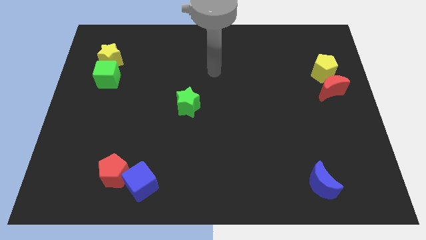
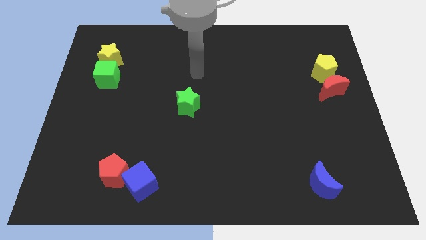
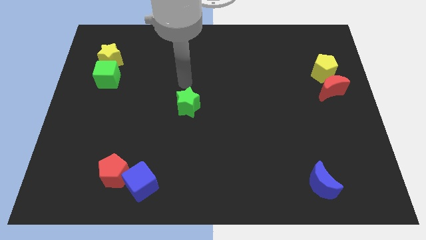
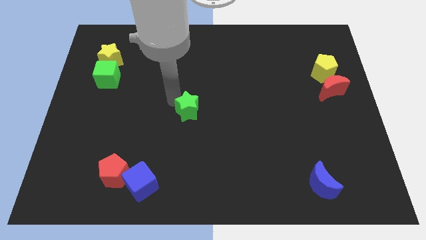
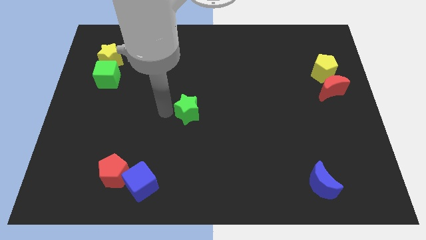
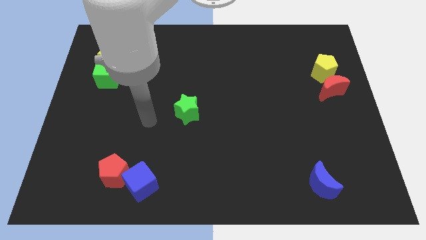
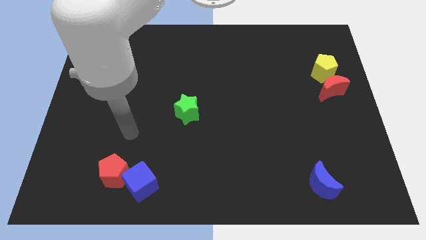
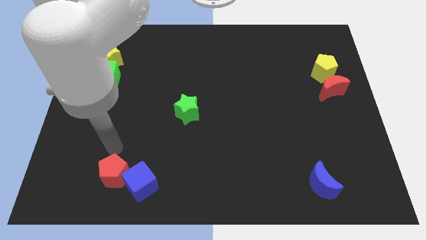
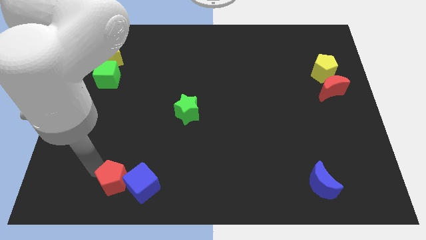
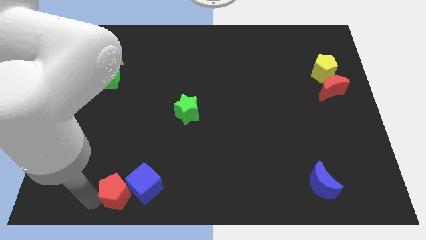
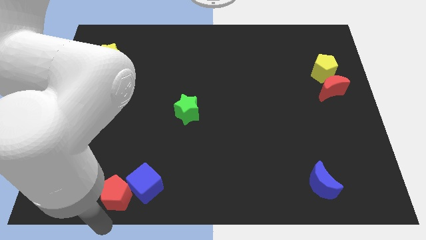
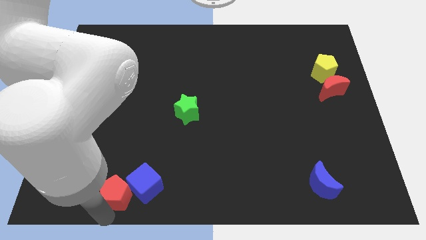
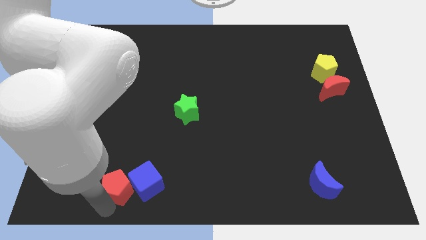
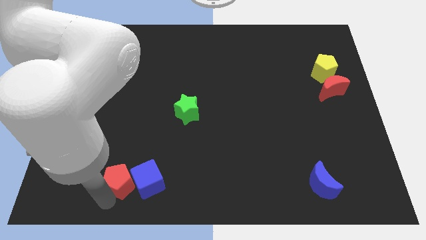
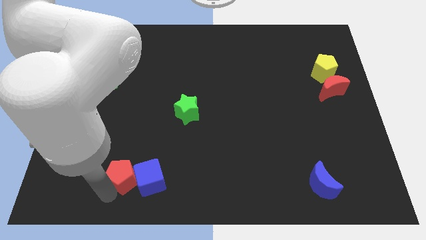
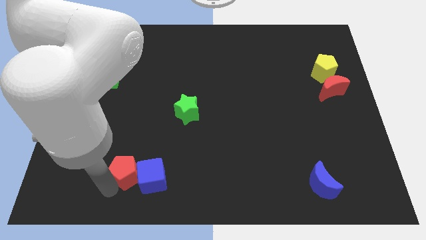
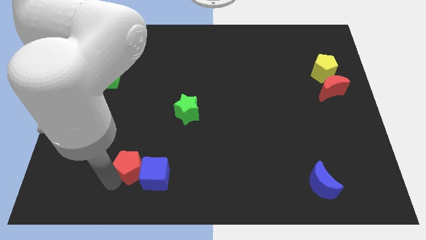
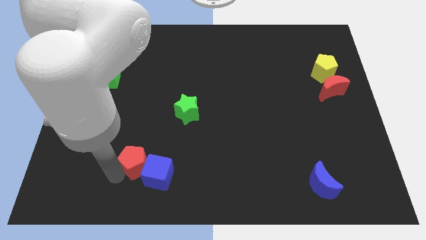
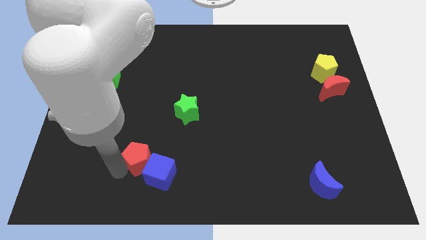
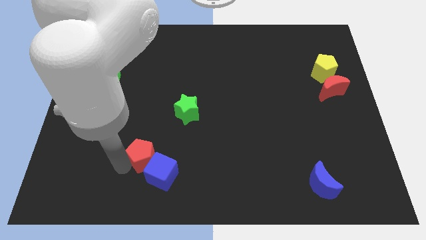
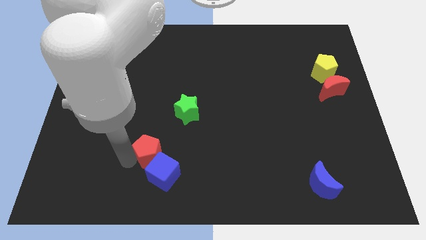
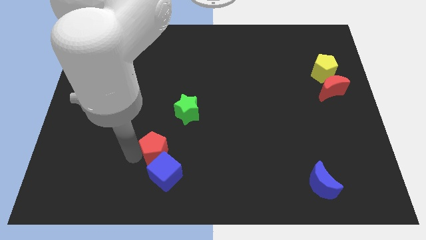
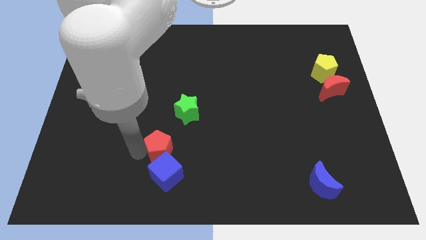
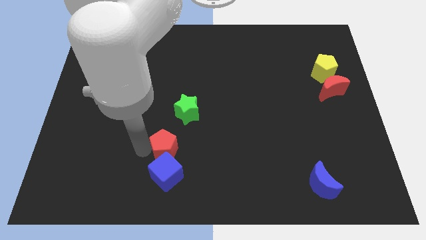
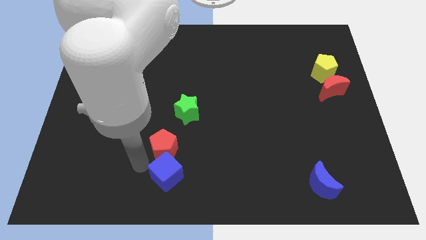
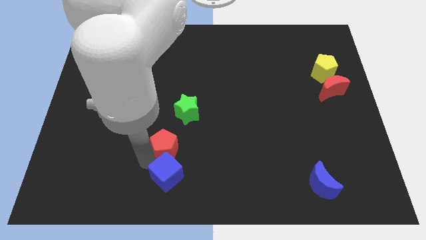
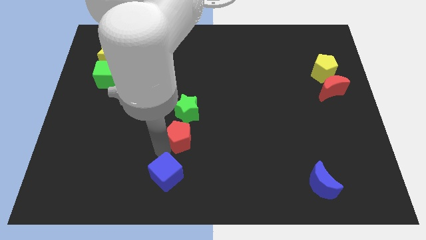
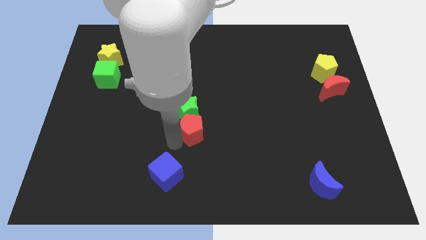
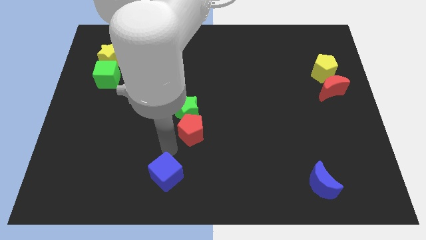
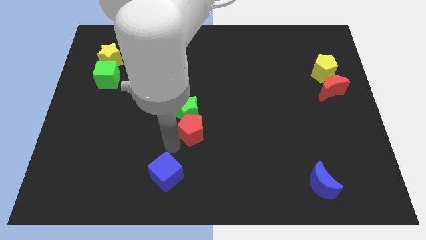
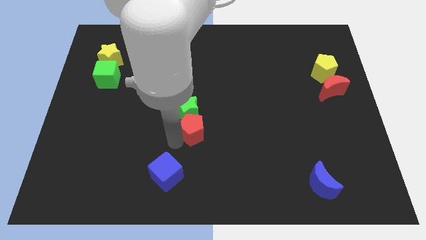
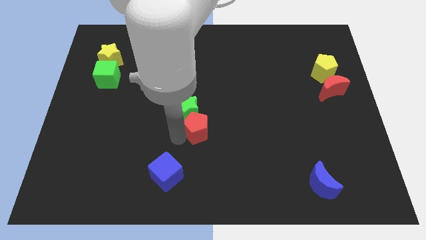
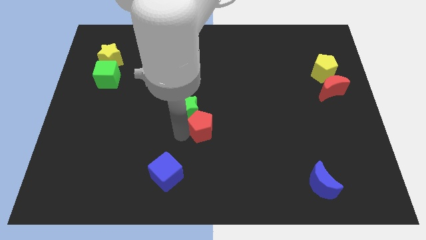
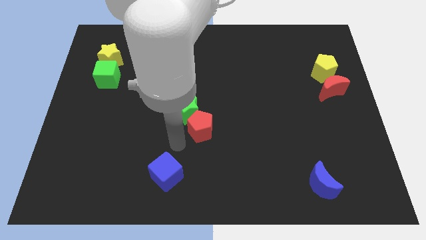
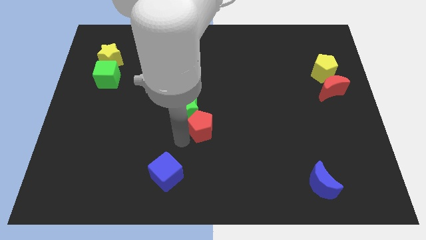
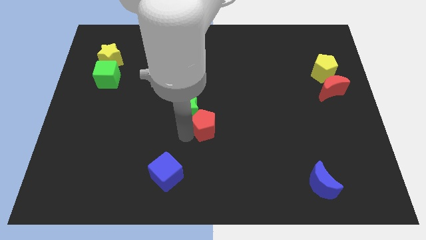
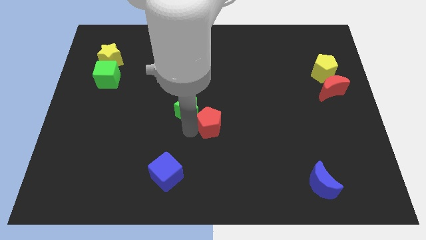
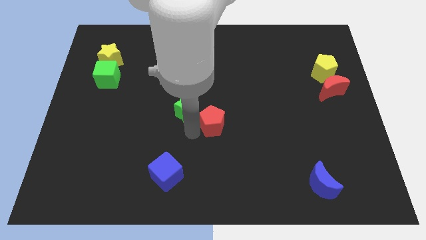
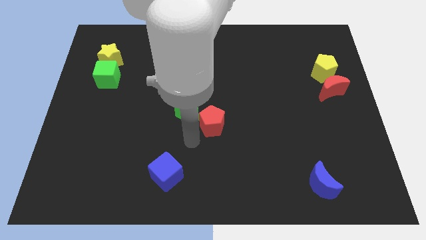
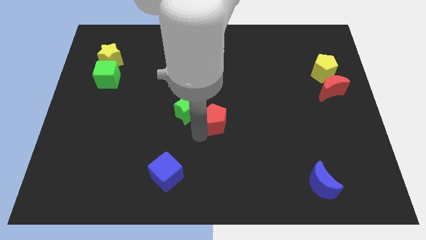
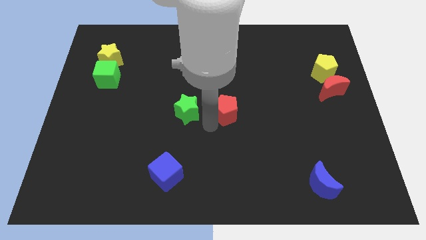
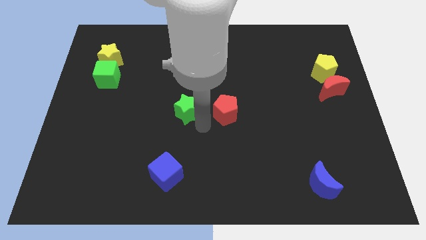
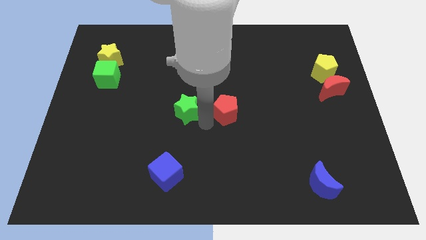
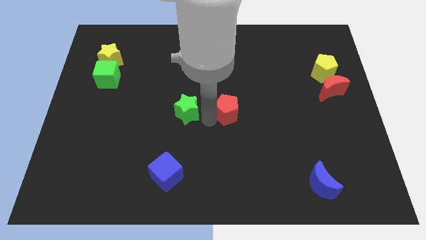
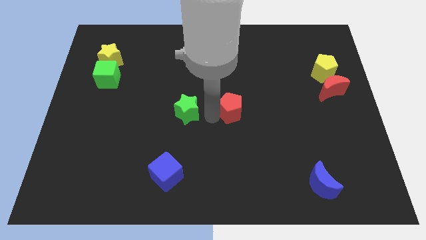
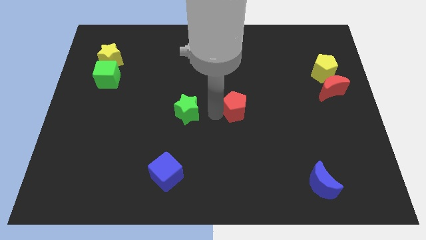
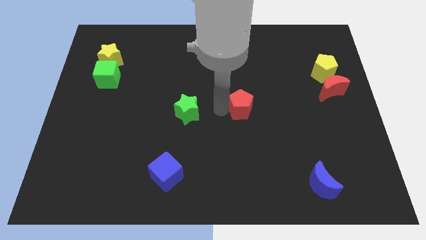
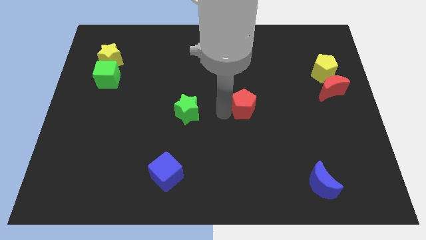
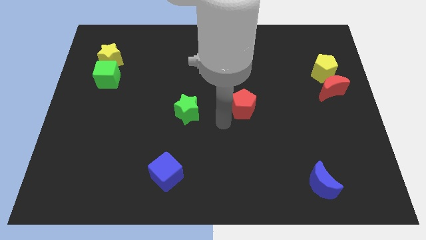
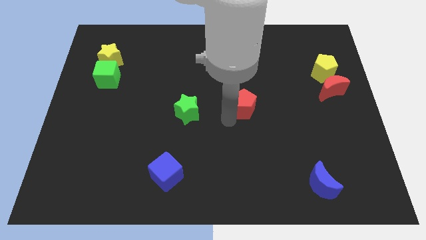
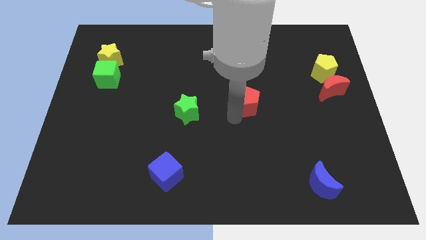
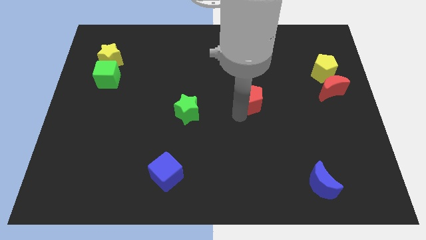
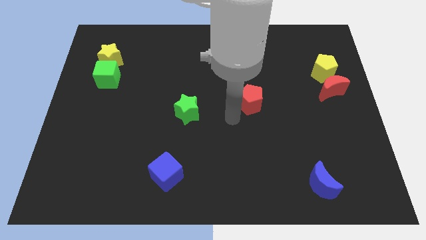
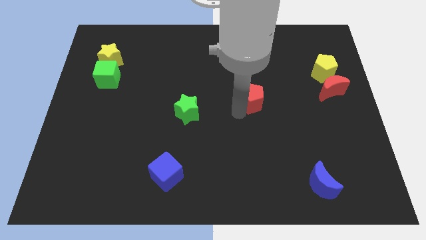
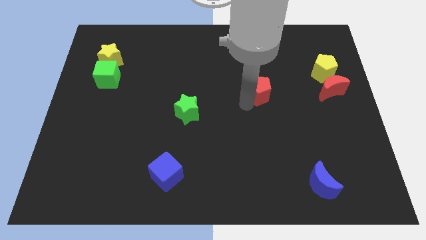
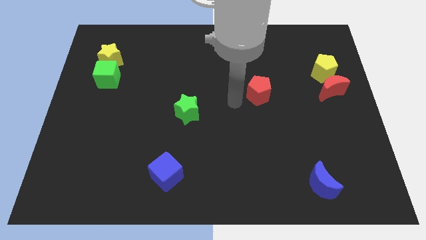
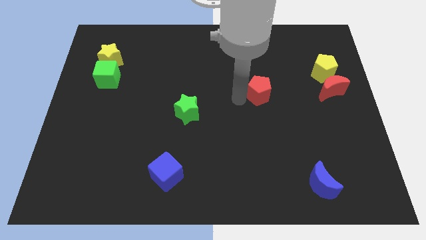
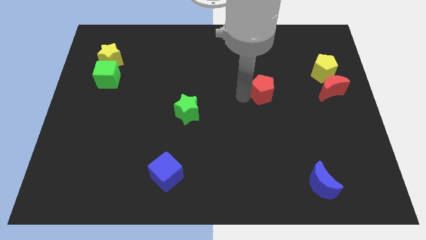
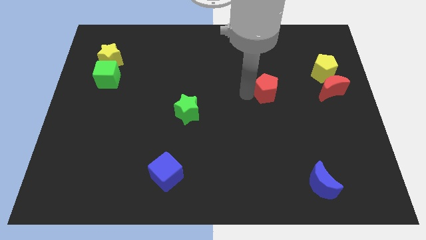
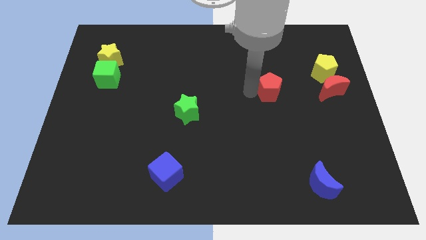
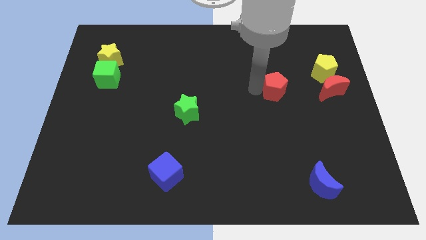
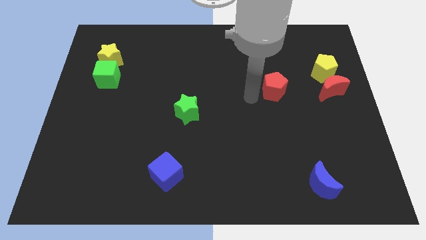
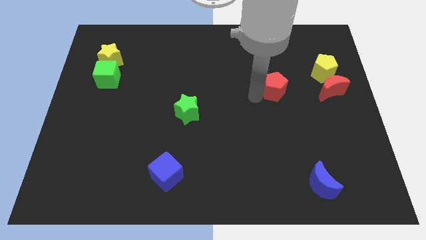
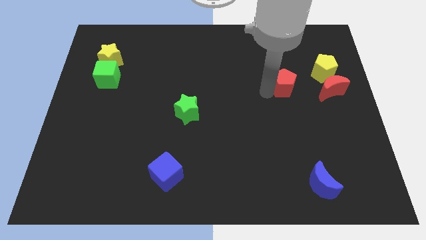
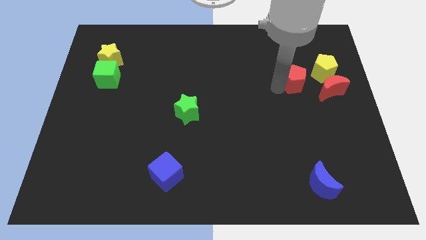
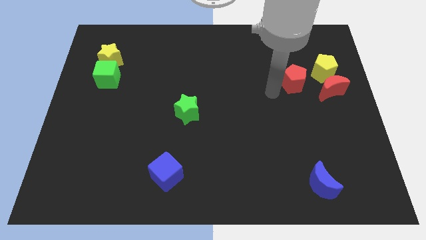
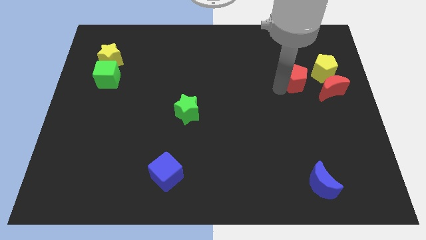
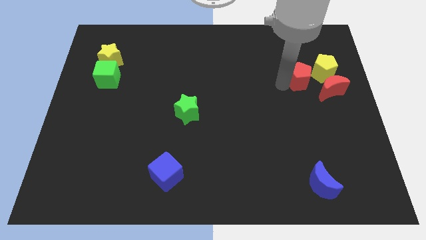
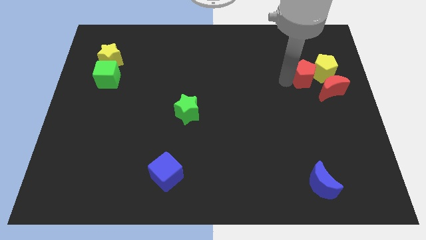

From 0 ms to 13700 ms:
push the red pentagon to the yellow pentagon

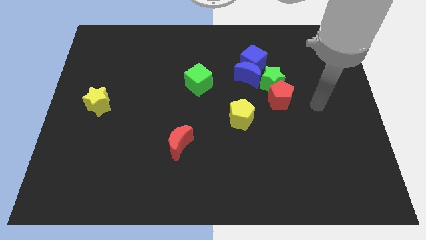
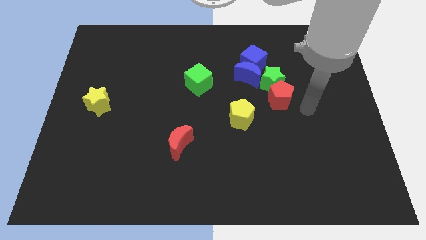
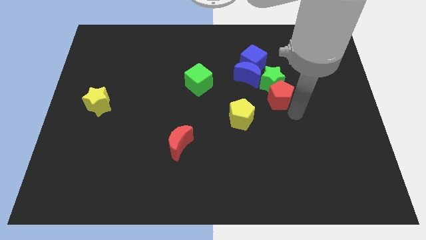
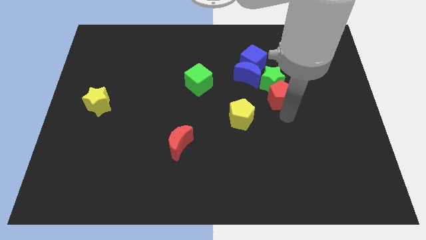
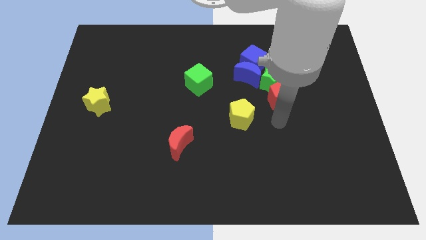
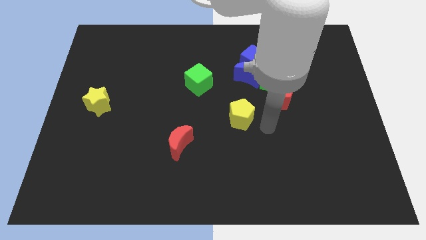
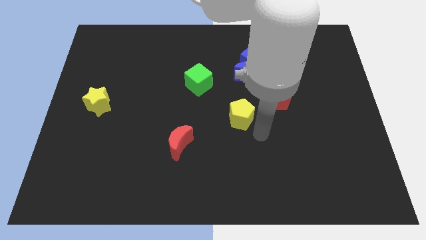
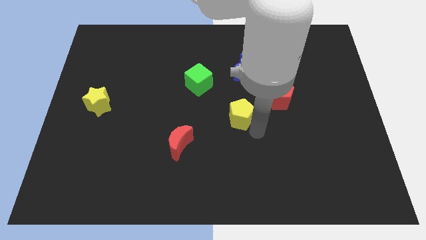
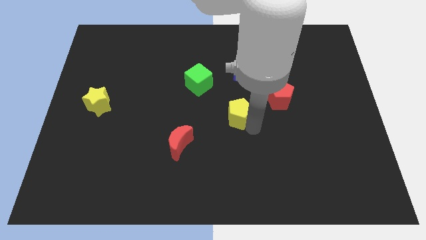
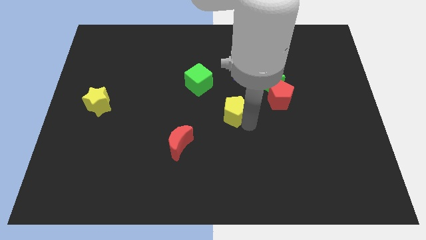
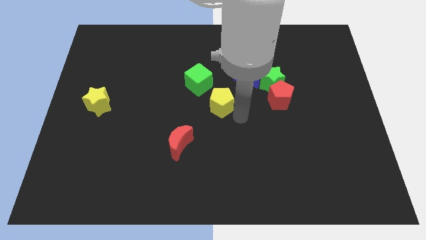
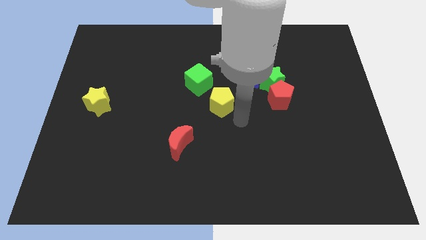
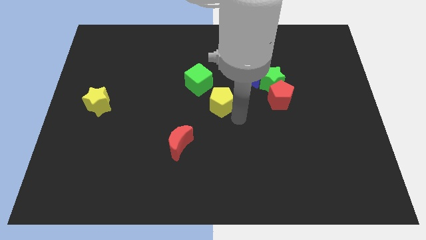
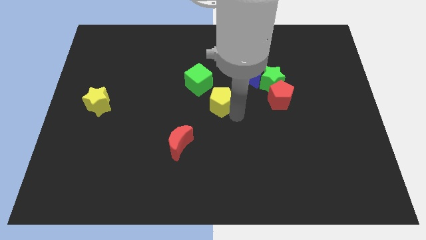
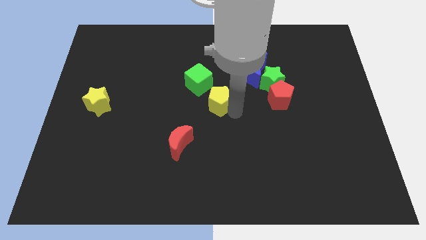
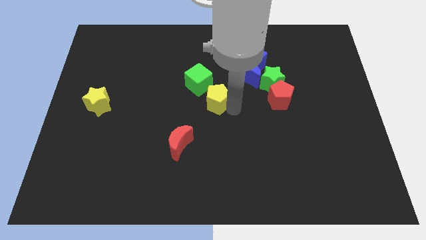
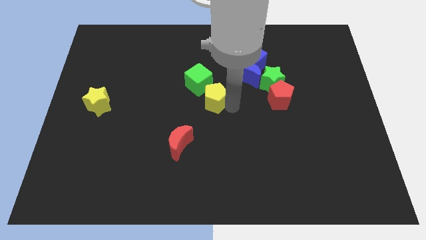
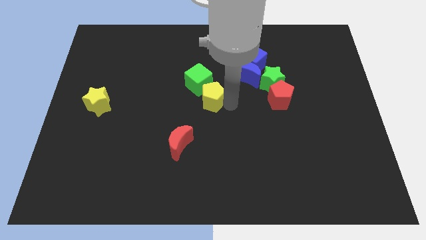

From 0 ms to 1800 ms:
slide the yellow pentagon next to the green cube
